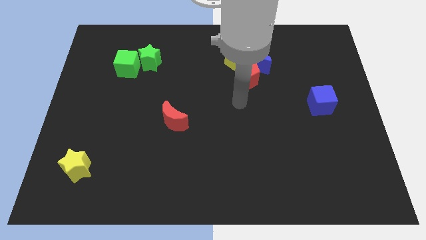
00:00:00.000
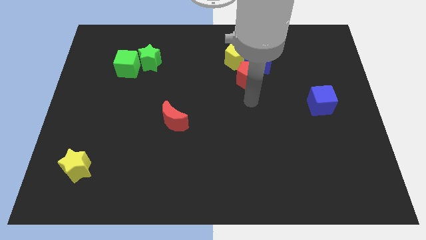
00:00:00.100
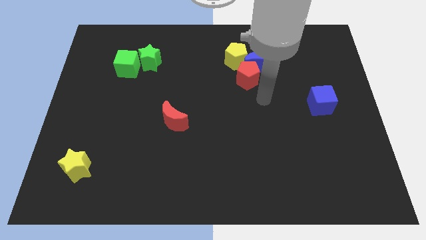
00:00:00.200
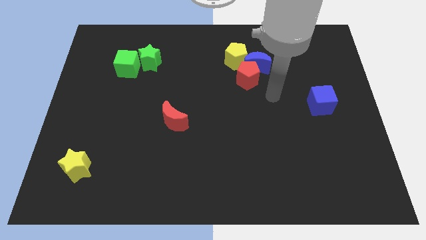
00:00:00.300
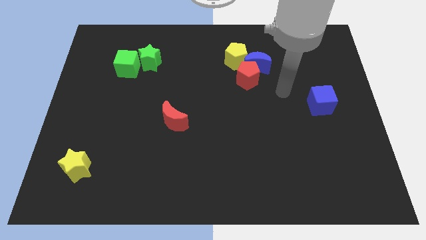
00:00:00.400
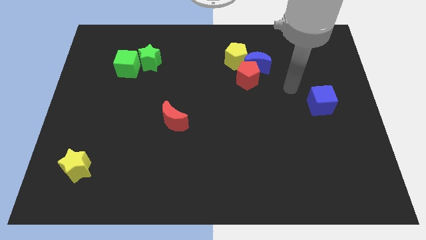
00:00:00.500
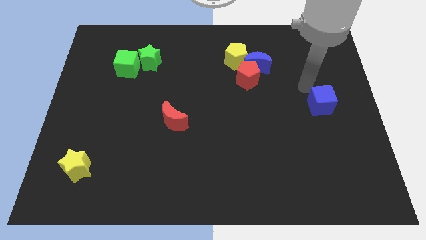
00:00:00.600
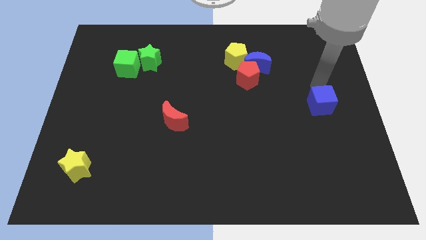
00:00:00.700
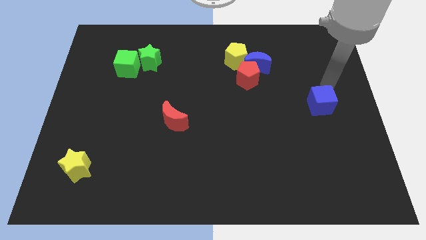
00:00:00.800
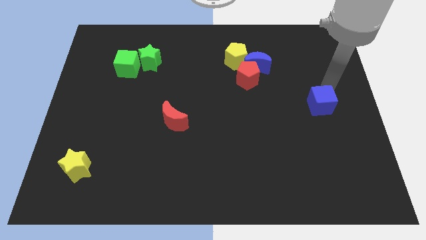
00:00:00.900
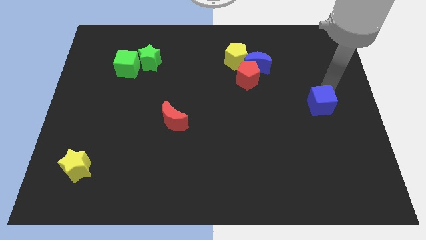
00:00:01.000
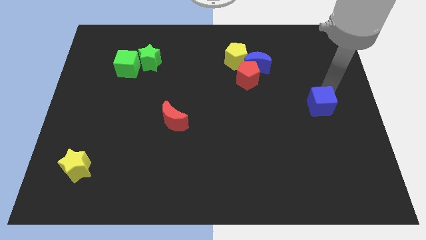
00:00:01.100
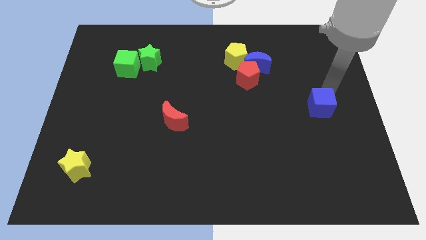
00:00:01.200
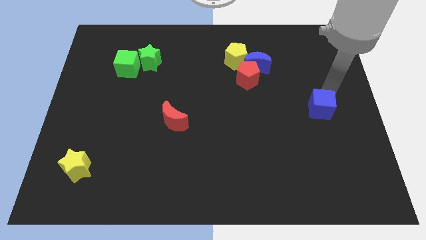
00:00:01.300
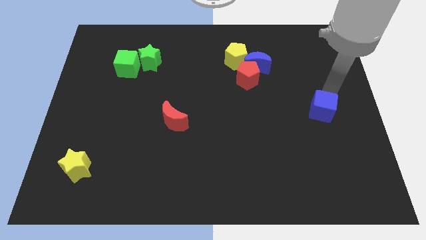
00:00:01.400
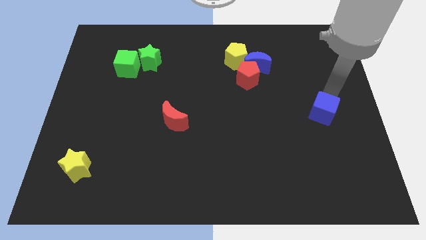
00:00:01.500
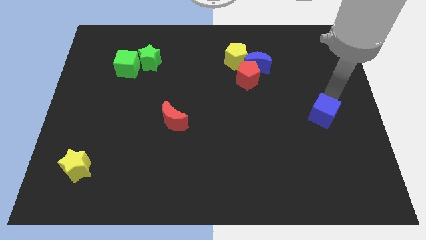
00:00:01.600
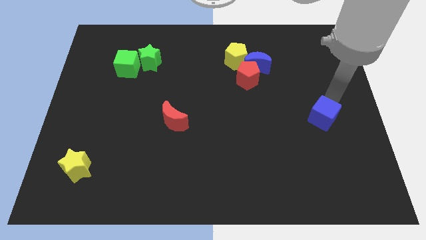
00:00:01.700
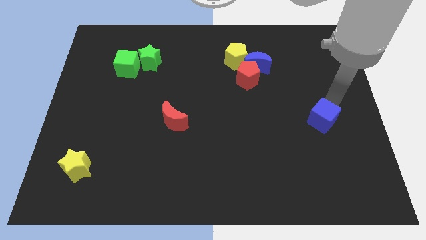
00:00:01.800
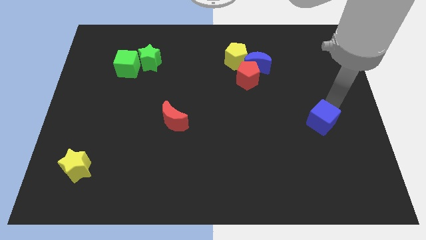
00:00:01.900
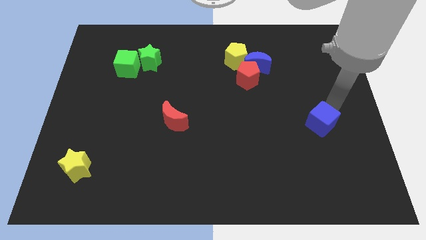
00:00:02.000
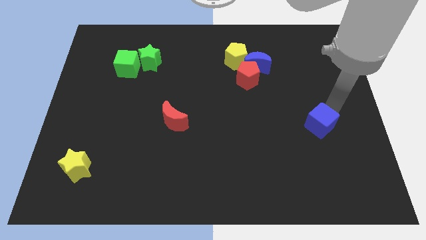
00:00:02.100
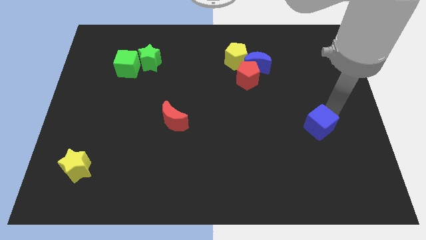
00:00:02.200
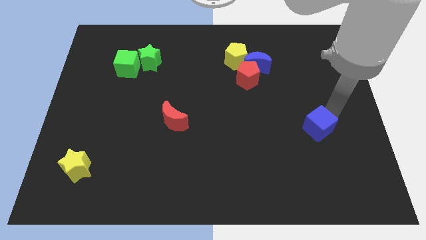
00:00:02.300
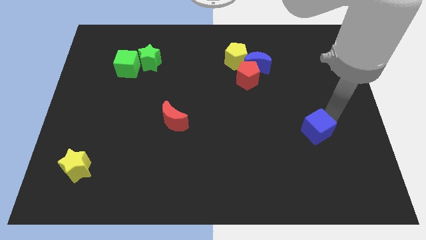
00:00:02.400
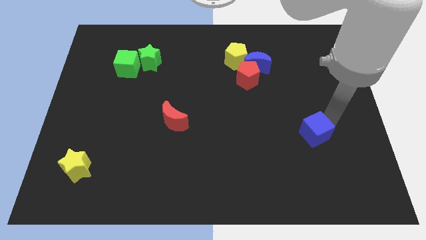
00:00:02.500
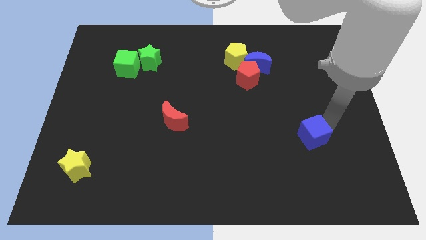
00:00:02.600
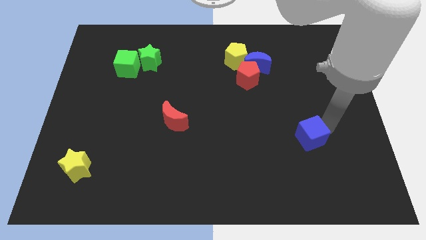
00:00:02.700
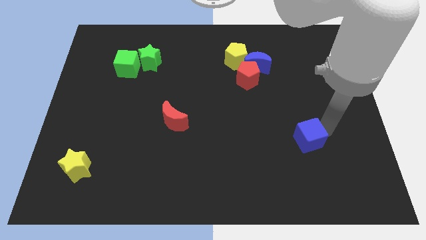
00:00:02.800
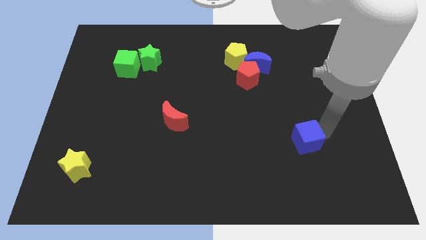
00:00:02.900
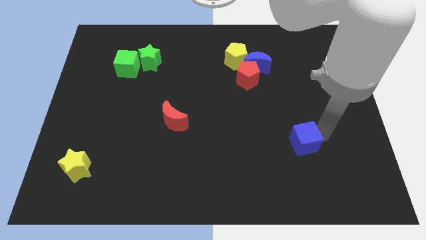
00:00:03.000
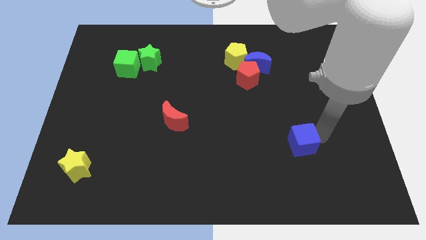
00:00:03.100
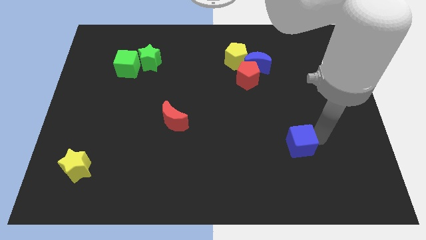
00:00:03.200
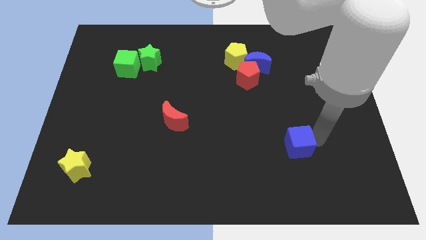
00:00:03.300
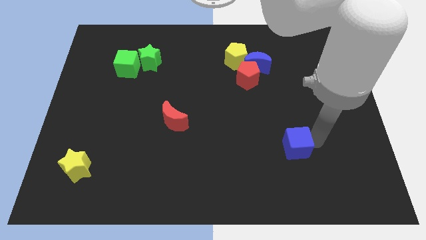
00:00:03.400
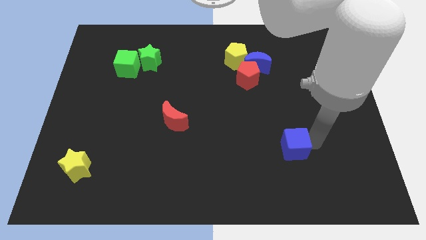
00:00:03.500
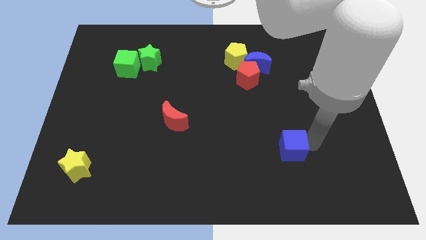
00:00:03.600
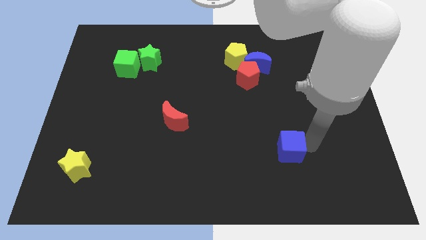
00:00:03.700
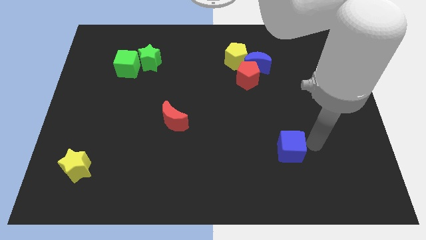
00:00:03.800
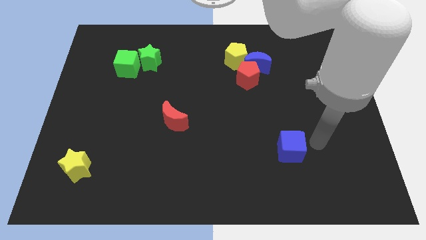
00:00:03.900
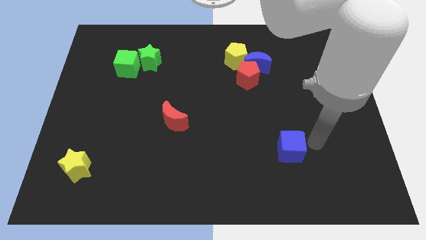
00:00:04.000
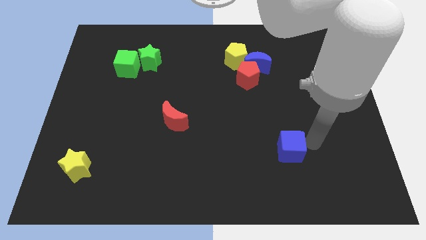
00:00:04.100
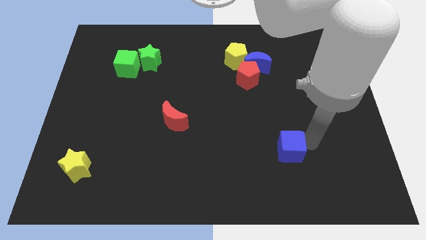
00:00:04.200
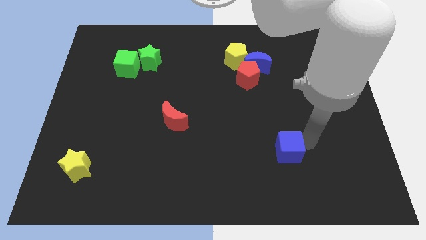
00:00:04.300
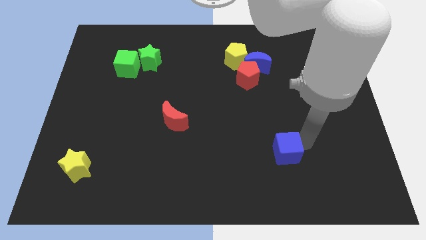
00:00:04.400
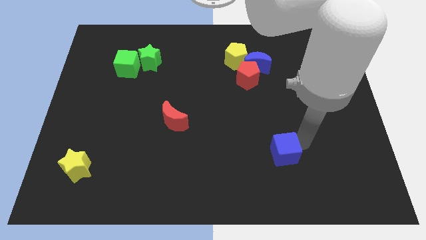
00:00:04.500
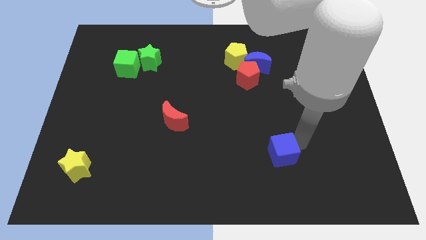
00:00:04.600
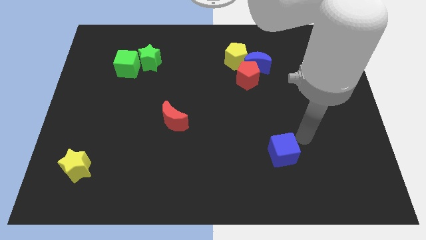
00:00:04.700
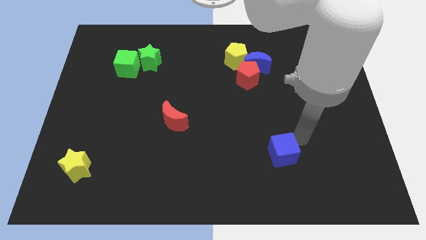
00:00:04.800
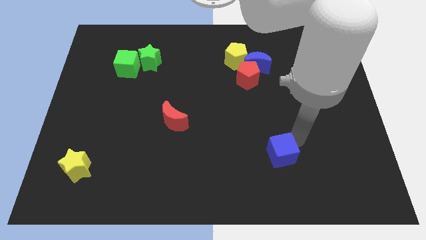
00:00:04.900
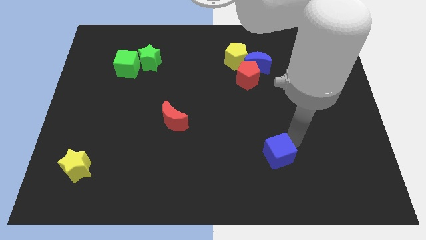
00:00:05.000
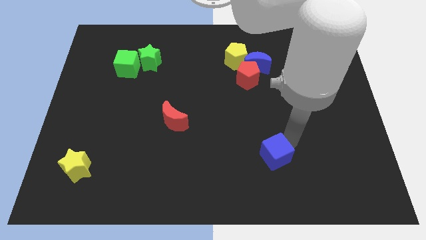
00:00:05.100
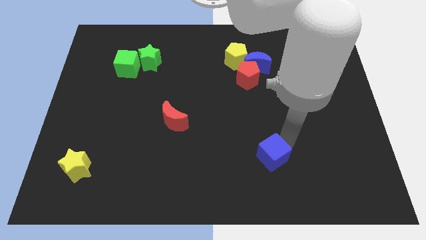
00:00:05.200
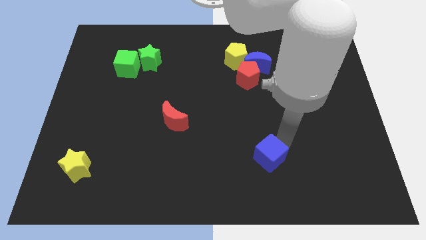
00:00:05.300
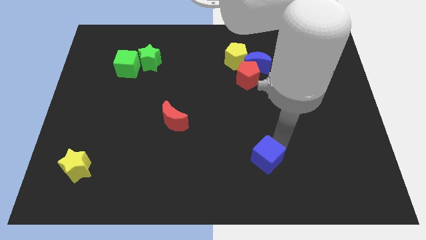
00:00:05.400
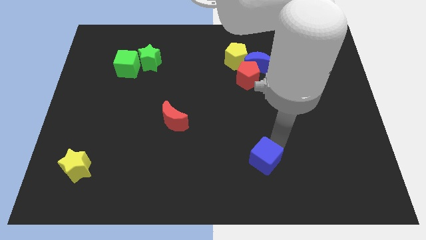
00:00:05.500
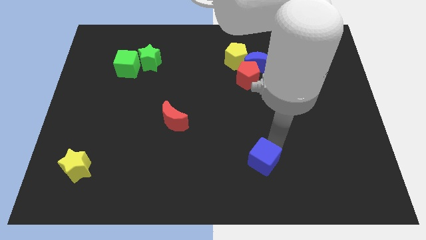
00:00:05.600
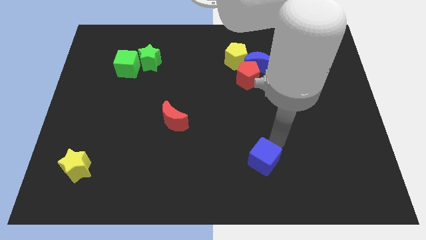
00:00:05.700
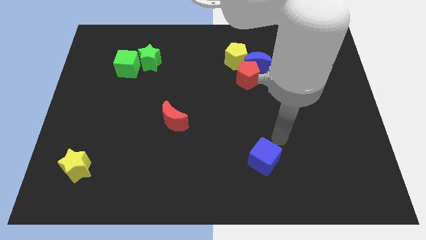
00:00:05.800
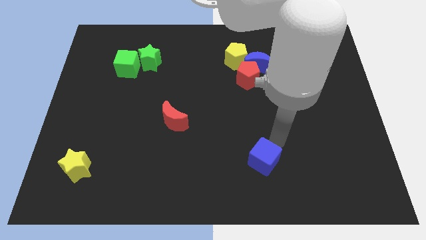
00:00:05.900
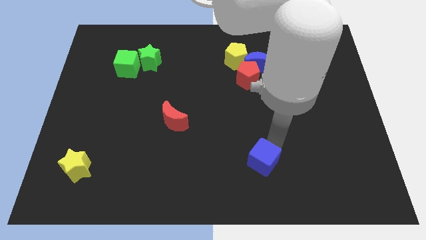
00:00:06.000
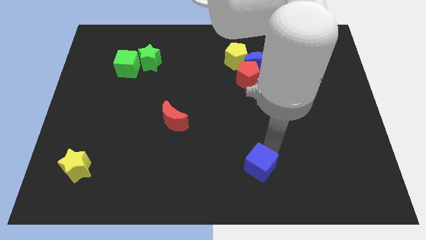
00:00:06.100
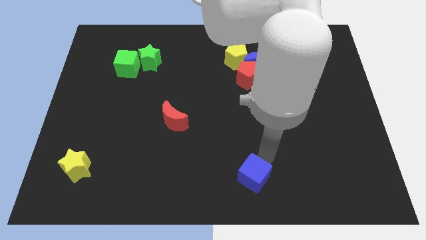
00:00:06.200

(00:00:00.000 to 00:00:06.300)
put the blue cube to the bottom
